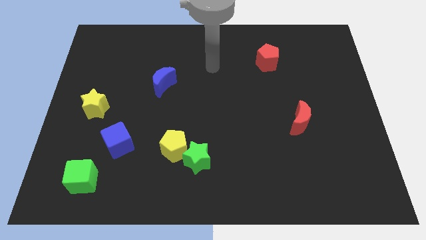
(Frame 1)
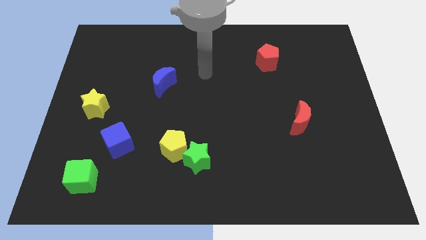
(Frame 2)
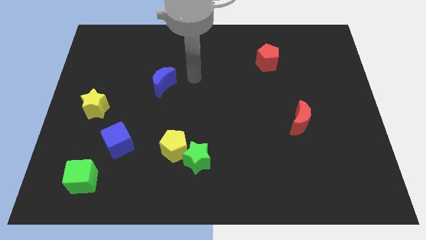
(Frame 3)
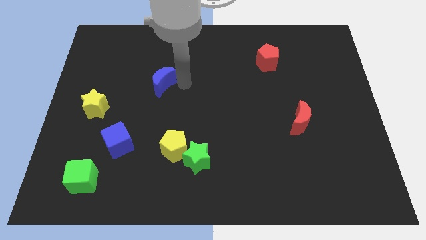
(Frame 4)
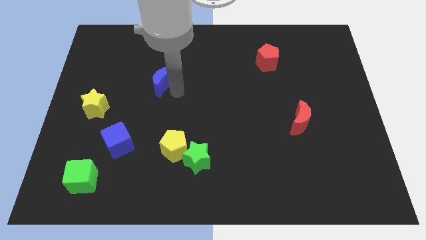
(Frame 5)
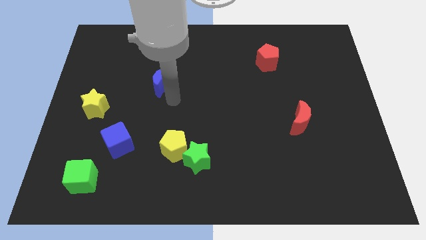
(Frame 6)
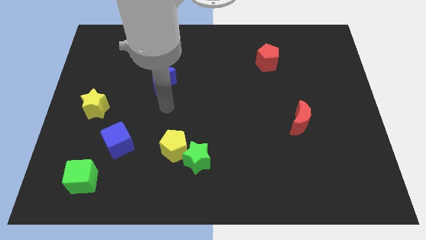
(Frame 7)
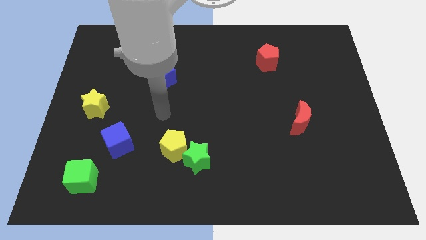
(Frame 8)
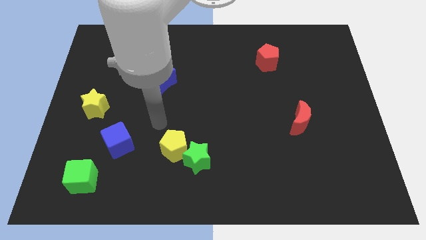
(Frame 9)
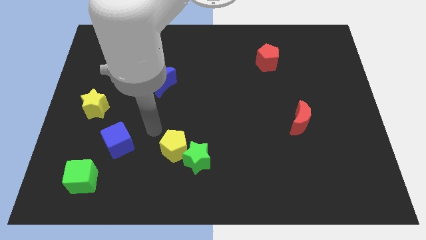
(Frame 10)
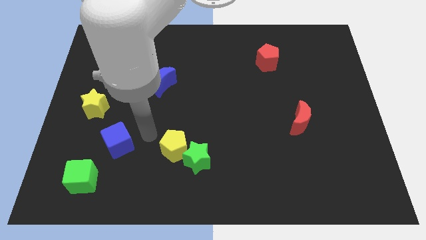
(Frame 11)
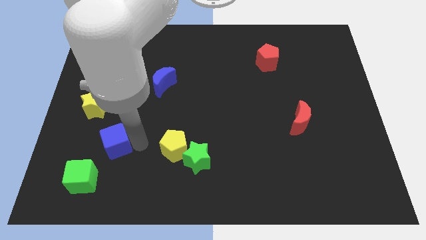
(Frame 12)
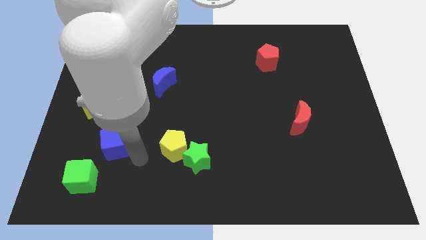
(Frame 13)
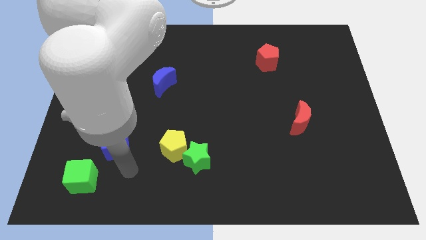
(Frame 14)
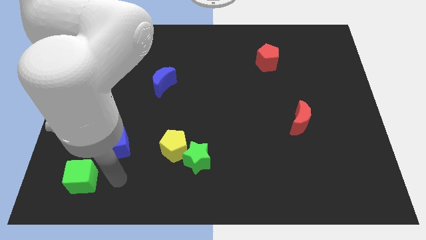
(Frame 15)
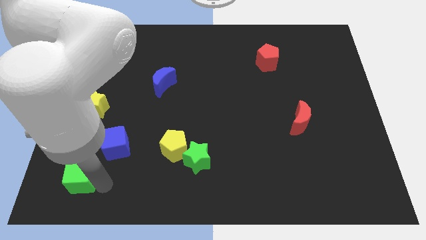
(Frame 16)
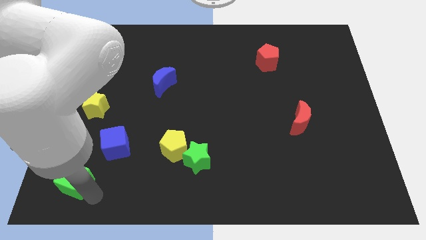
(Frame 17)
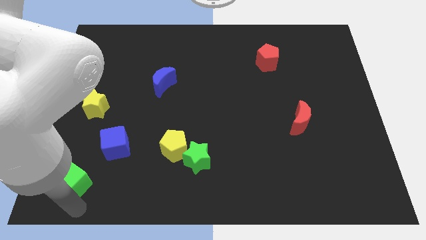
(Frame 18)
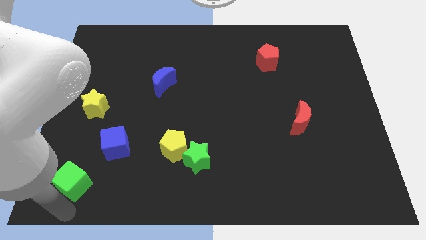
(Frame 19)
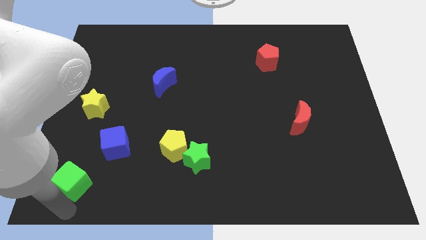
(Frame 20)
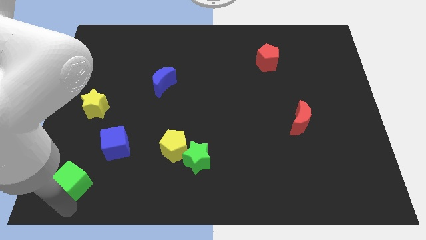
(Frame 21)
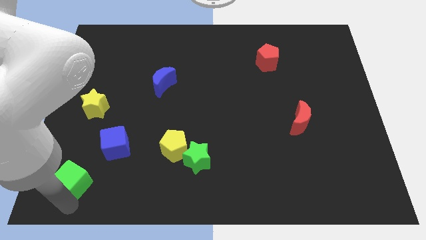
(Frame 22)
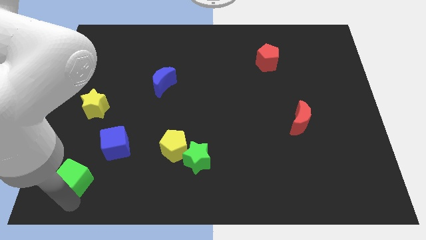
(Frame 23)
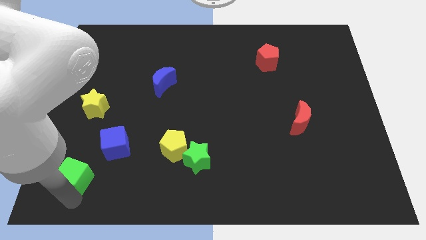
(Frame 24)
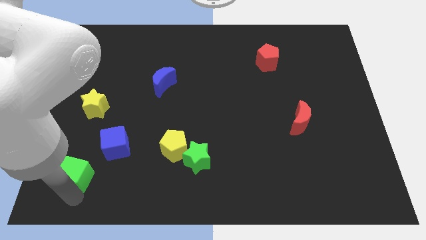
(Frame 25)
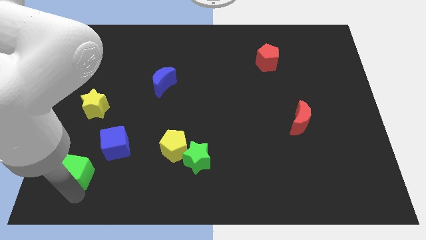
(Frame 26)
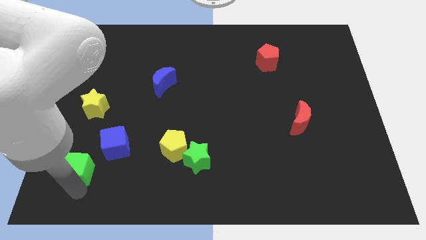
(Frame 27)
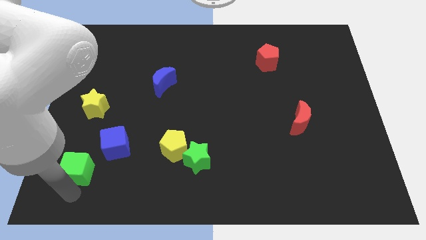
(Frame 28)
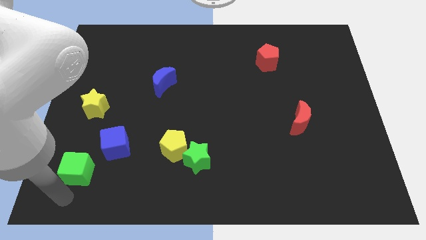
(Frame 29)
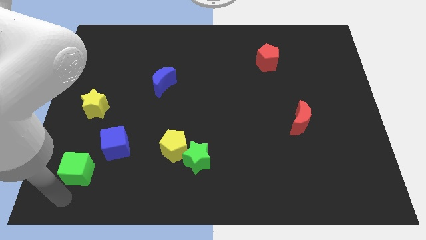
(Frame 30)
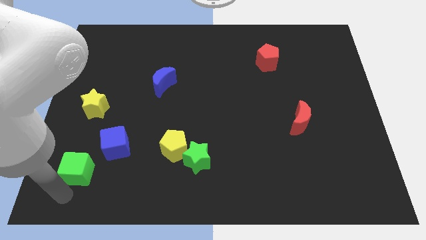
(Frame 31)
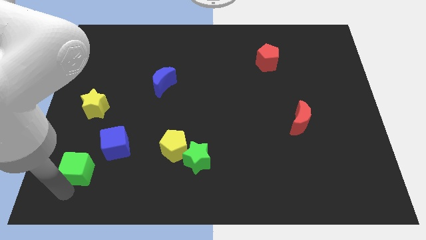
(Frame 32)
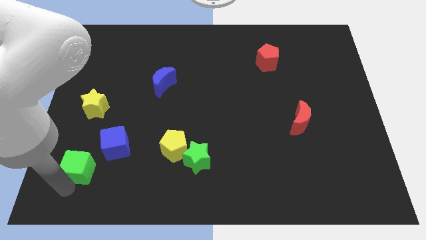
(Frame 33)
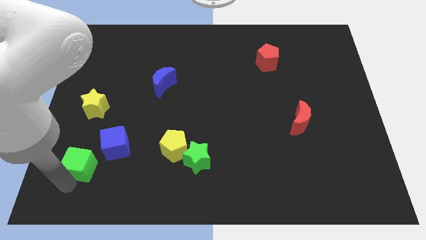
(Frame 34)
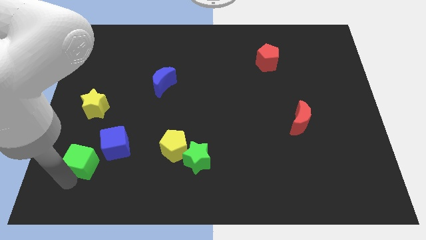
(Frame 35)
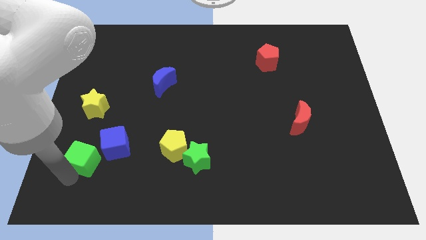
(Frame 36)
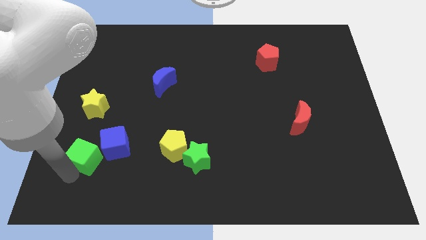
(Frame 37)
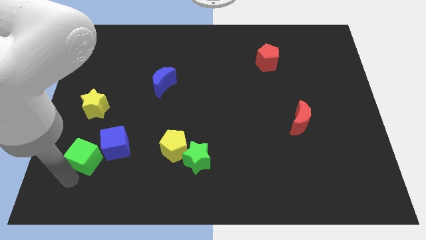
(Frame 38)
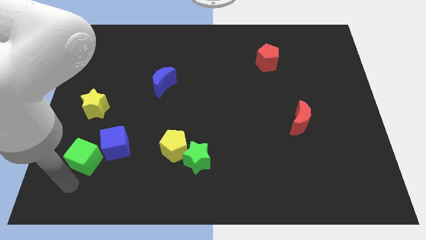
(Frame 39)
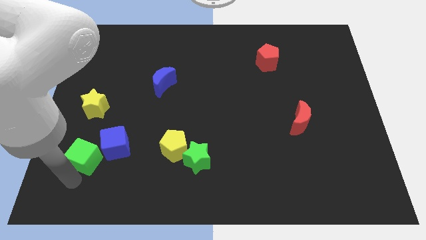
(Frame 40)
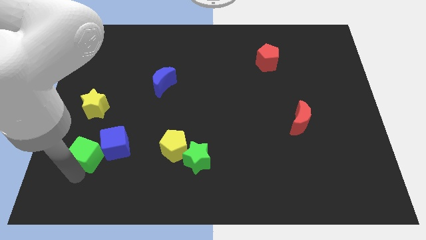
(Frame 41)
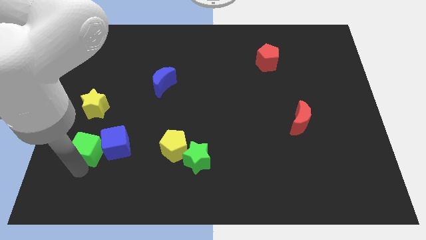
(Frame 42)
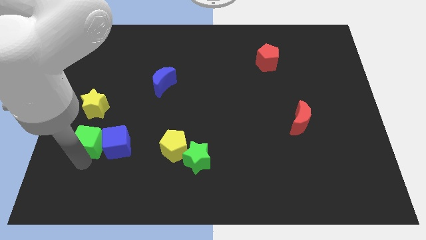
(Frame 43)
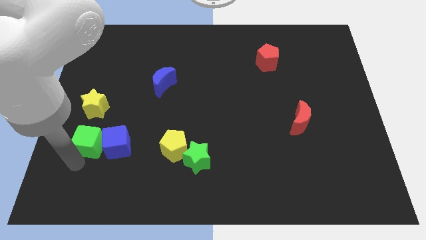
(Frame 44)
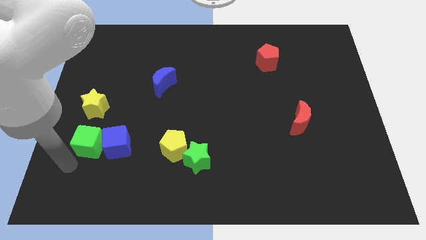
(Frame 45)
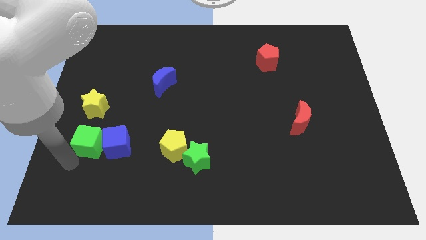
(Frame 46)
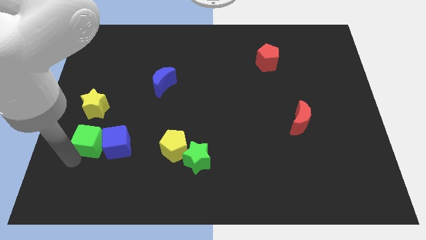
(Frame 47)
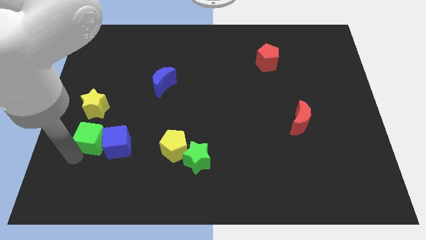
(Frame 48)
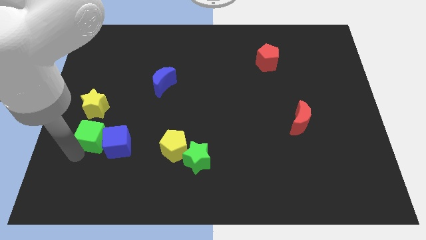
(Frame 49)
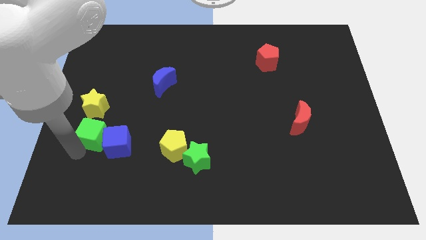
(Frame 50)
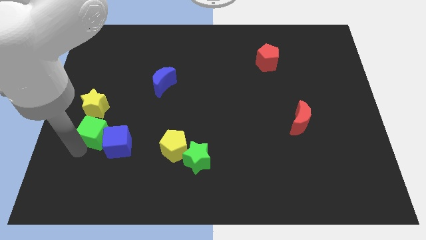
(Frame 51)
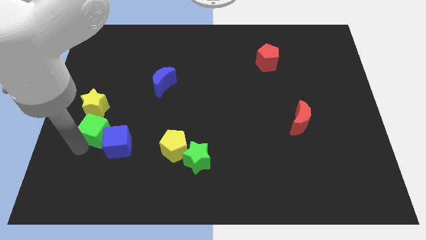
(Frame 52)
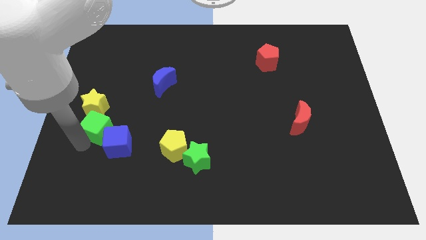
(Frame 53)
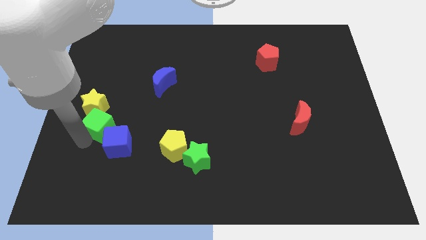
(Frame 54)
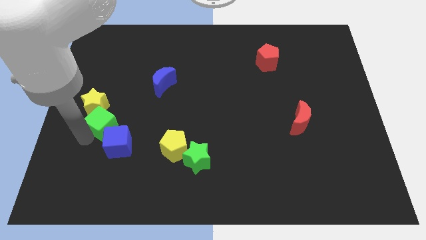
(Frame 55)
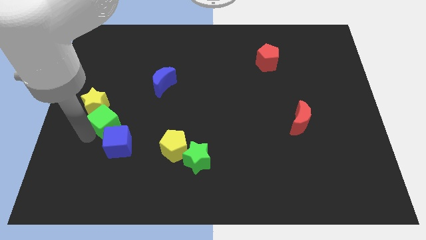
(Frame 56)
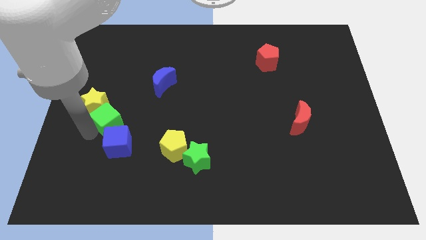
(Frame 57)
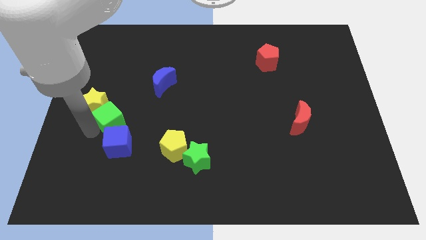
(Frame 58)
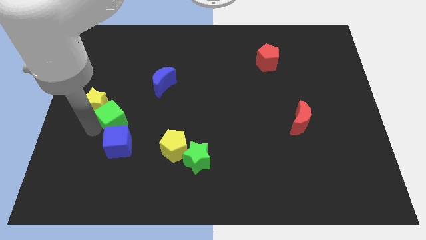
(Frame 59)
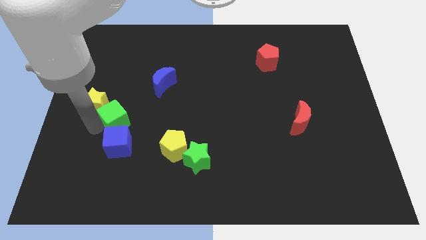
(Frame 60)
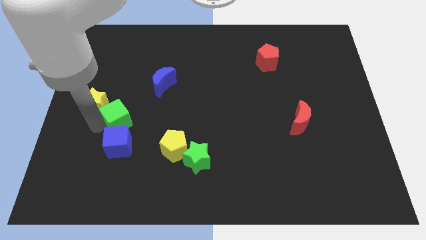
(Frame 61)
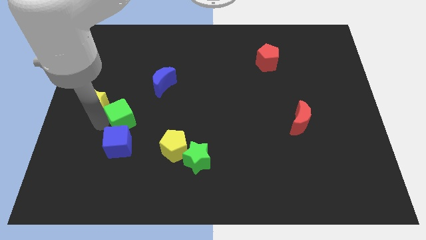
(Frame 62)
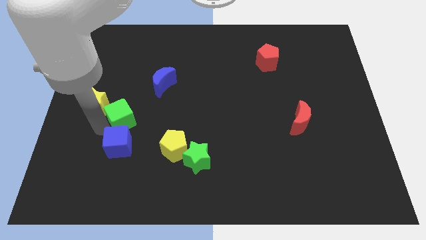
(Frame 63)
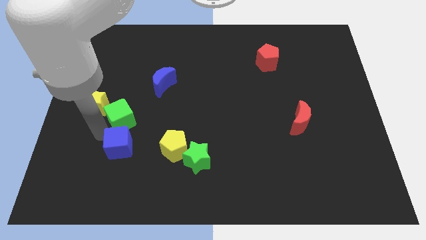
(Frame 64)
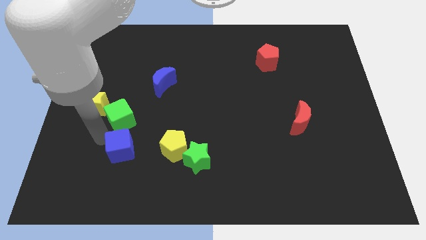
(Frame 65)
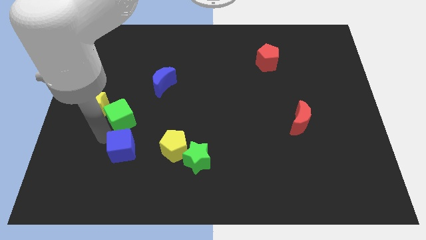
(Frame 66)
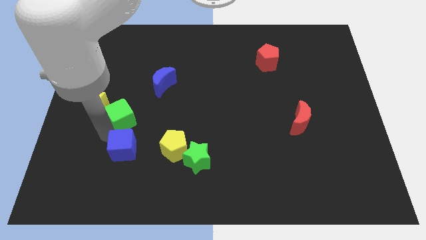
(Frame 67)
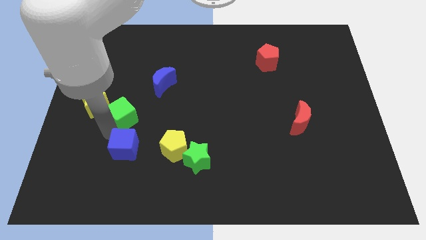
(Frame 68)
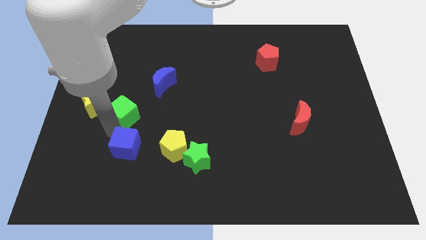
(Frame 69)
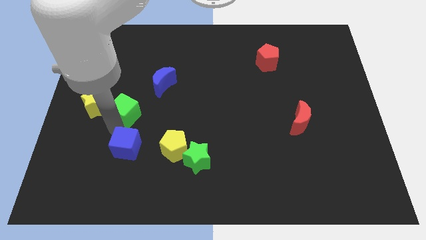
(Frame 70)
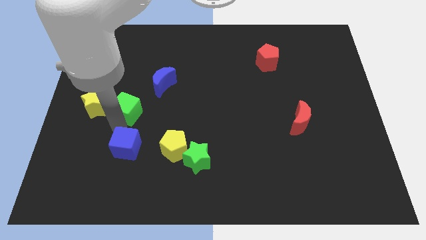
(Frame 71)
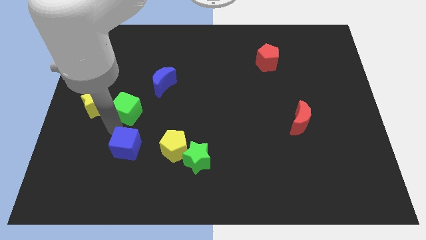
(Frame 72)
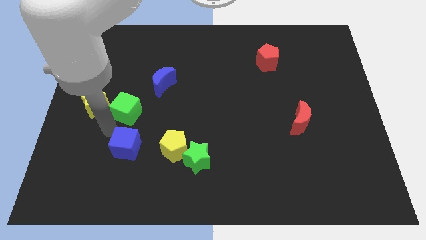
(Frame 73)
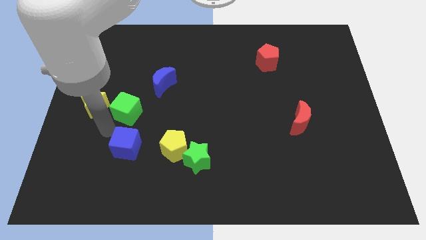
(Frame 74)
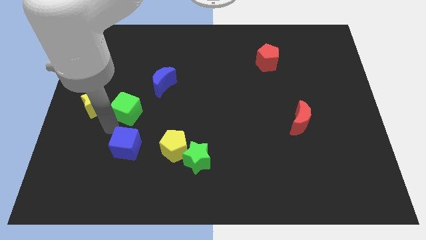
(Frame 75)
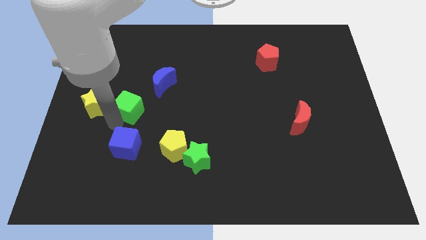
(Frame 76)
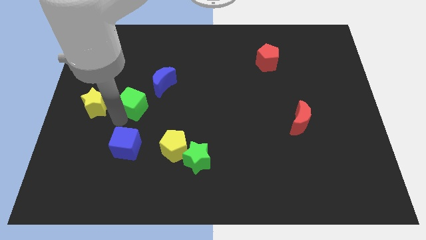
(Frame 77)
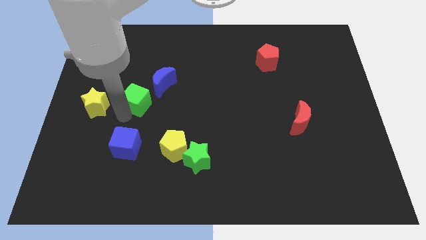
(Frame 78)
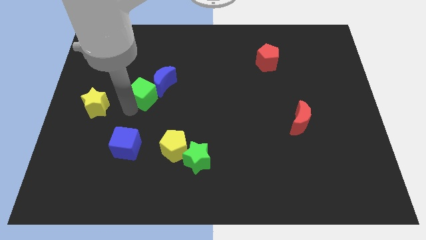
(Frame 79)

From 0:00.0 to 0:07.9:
put the green cube towards the blue moon
